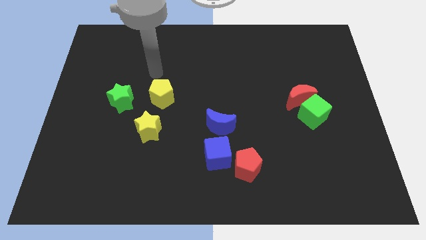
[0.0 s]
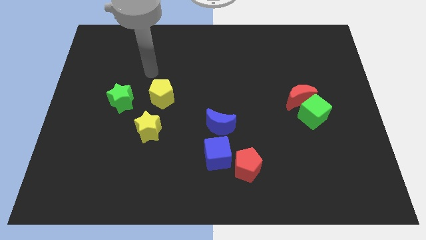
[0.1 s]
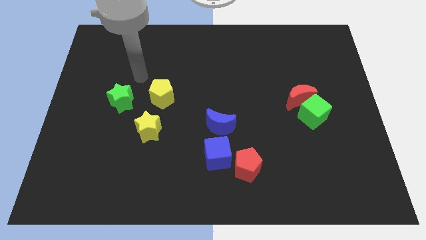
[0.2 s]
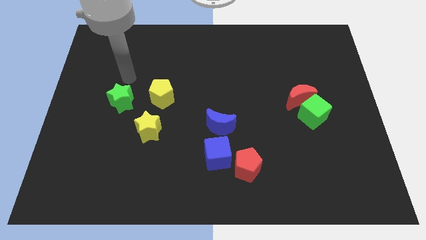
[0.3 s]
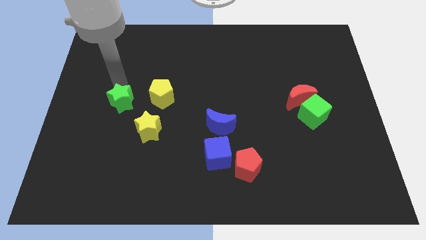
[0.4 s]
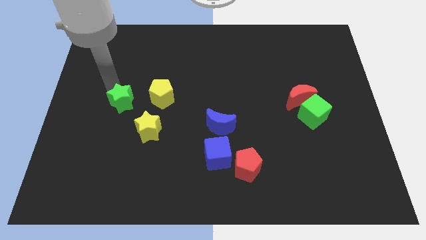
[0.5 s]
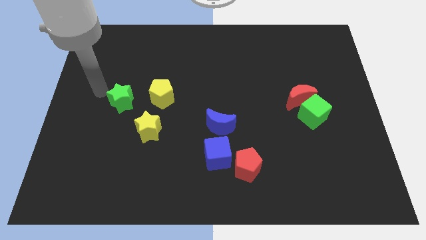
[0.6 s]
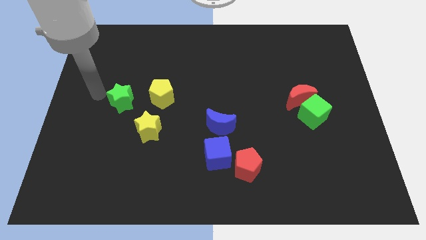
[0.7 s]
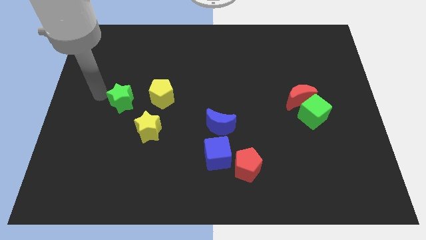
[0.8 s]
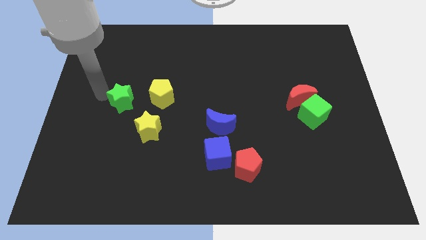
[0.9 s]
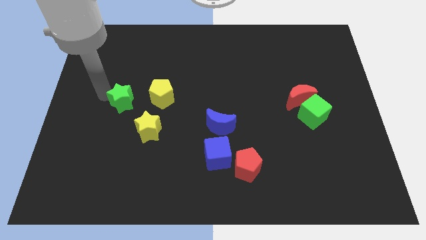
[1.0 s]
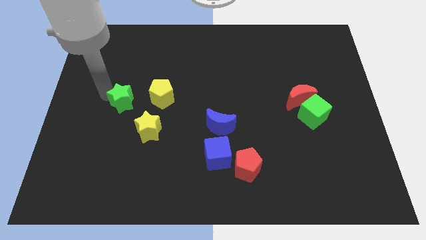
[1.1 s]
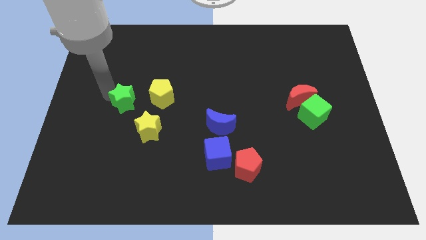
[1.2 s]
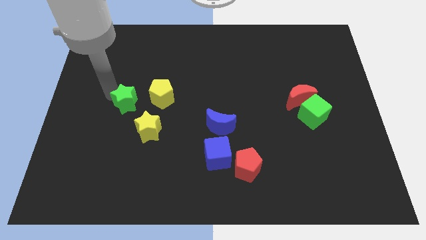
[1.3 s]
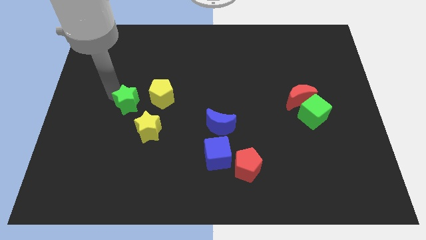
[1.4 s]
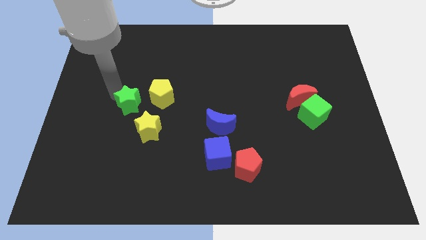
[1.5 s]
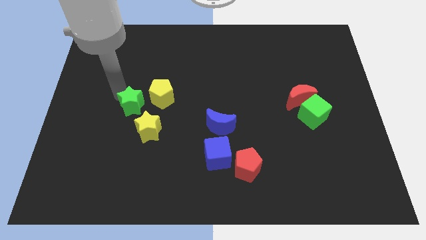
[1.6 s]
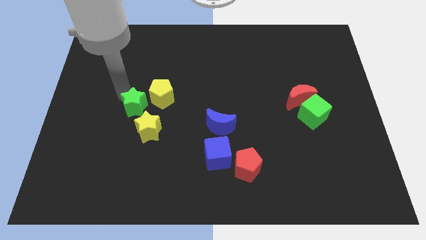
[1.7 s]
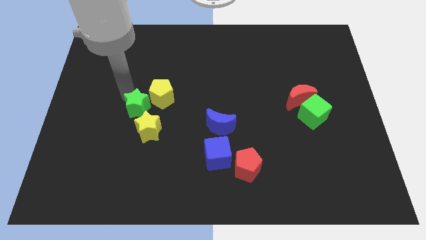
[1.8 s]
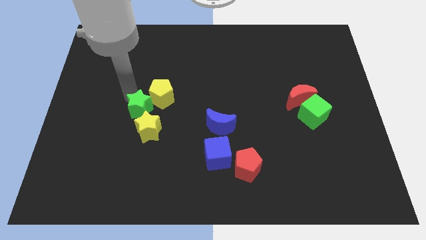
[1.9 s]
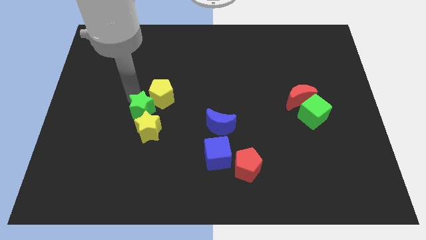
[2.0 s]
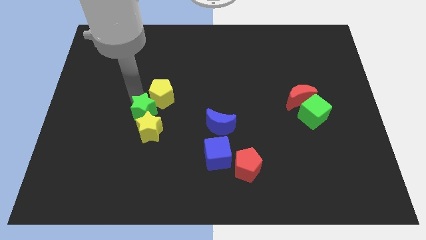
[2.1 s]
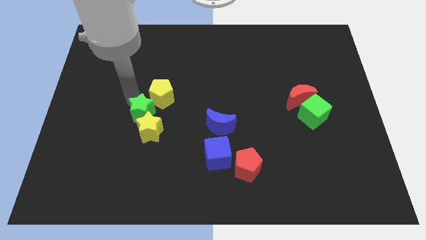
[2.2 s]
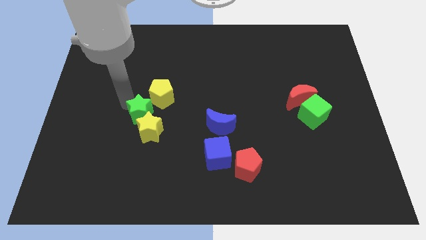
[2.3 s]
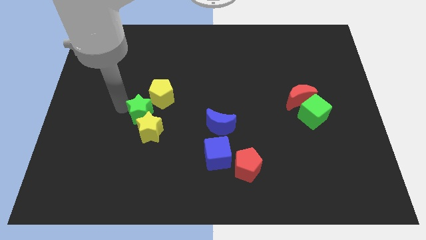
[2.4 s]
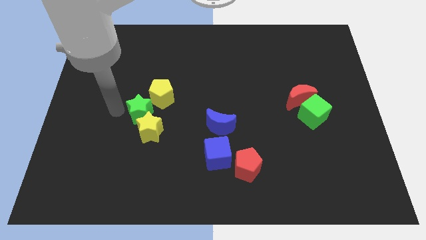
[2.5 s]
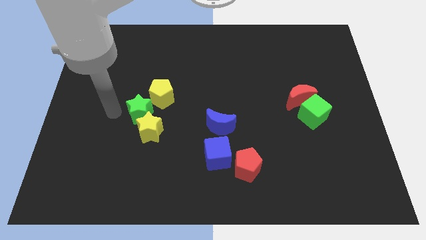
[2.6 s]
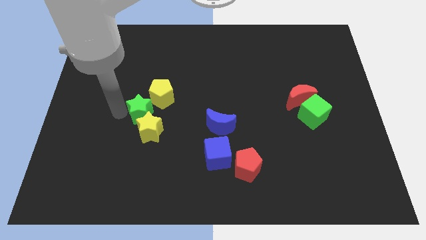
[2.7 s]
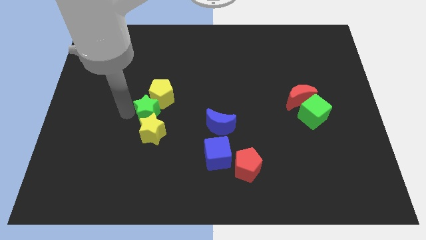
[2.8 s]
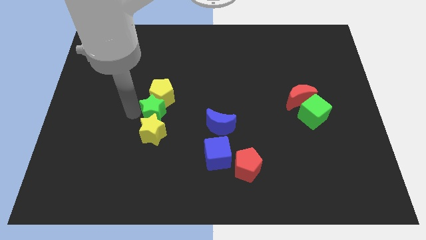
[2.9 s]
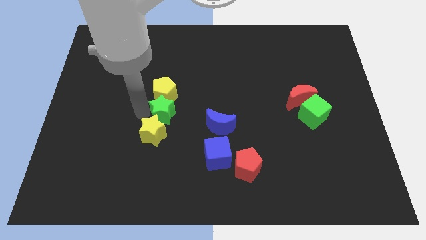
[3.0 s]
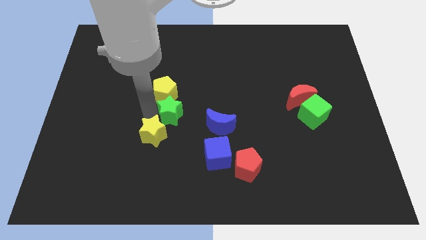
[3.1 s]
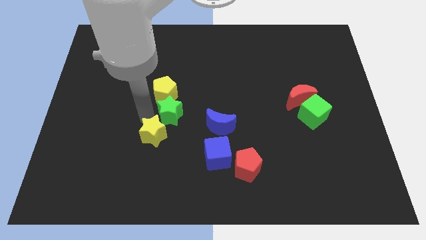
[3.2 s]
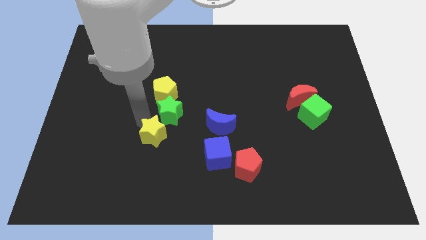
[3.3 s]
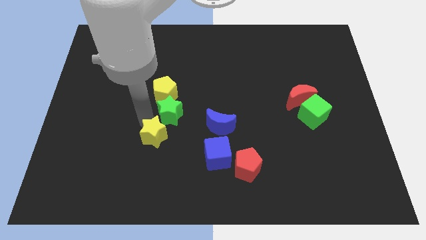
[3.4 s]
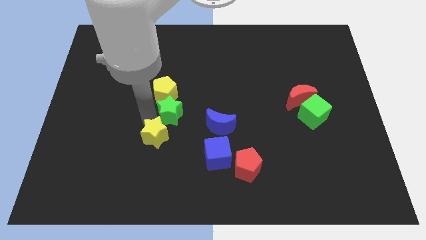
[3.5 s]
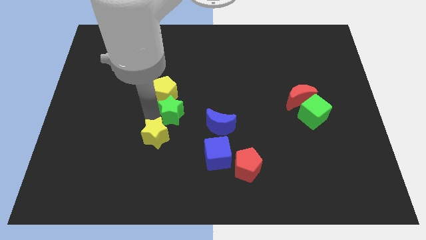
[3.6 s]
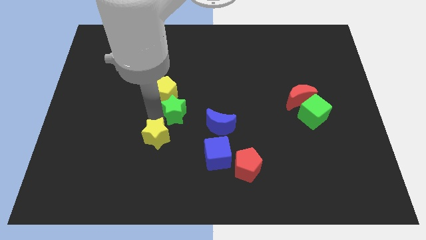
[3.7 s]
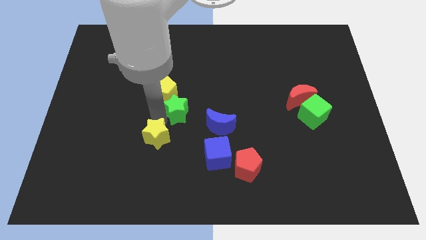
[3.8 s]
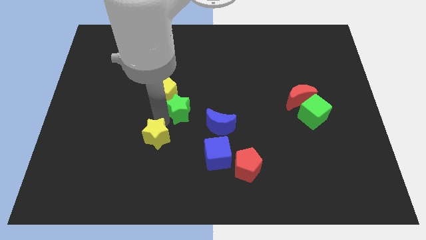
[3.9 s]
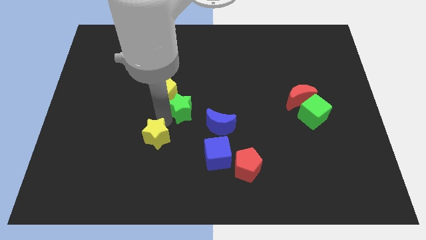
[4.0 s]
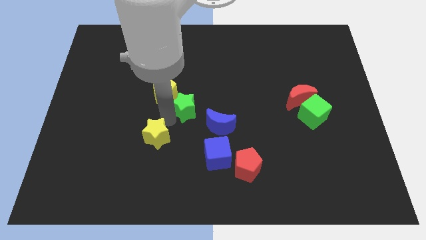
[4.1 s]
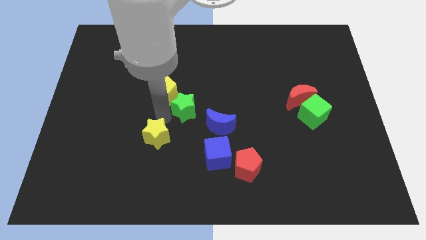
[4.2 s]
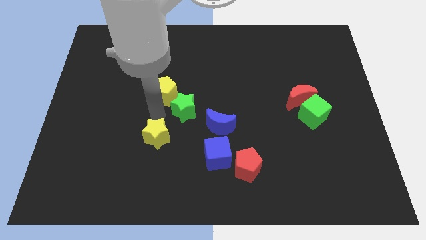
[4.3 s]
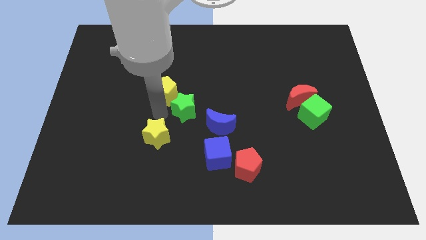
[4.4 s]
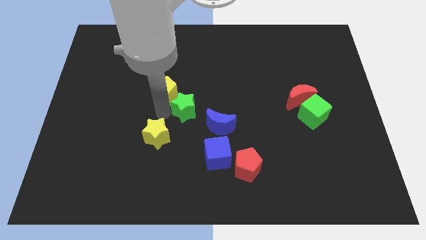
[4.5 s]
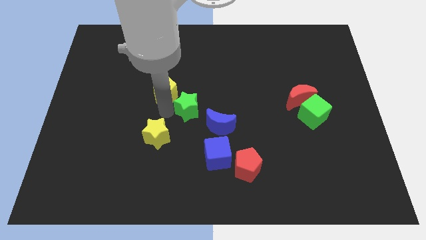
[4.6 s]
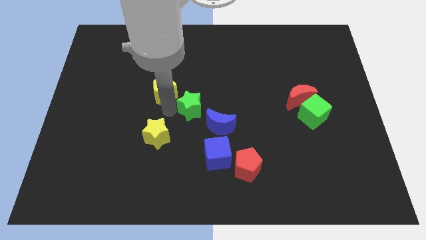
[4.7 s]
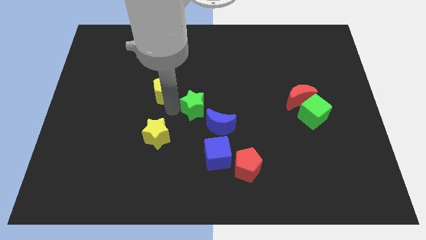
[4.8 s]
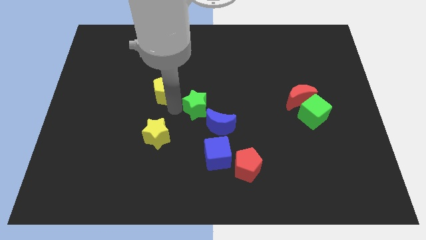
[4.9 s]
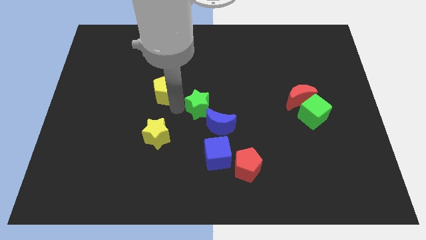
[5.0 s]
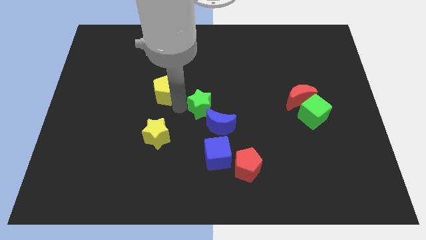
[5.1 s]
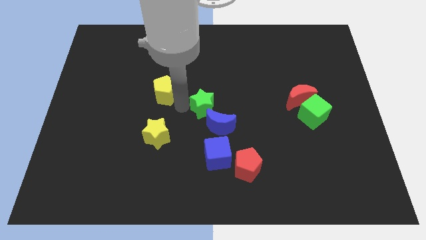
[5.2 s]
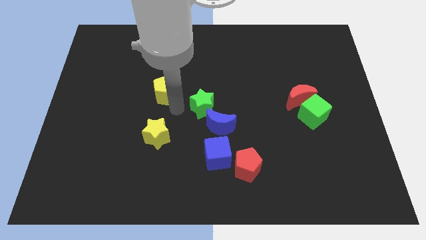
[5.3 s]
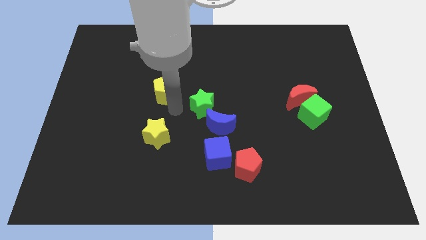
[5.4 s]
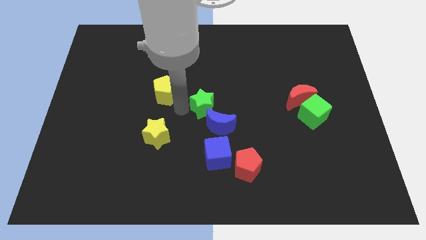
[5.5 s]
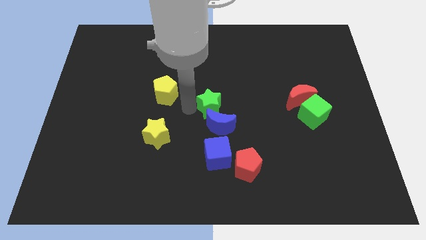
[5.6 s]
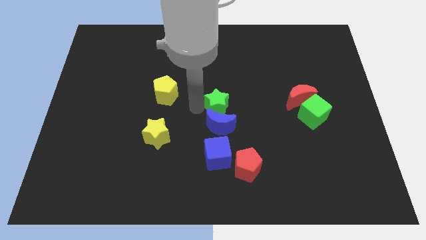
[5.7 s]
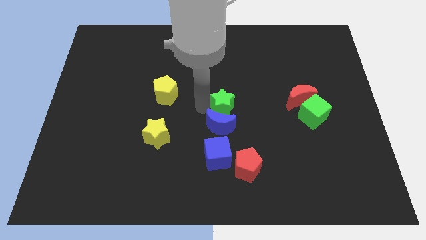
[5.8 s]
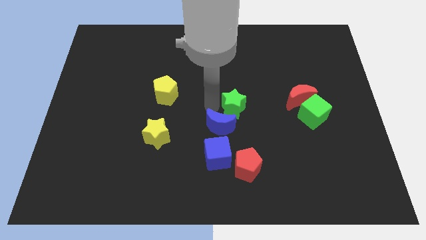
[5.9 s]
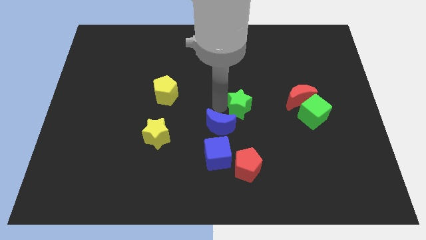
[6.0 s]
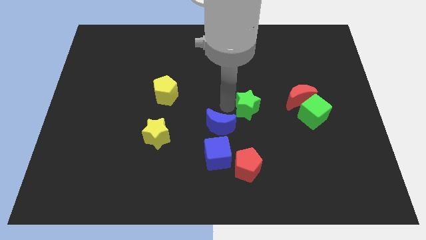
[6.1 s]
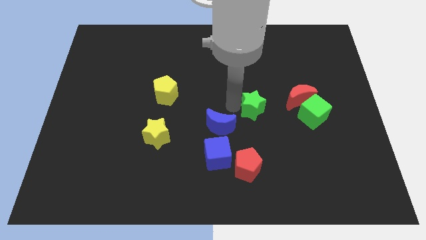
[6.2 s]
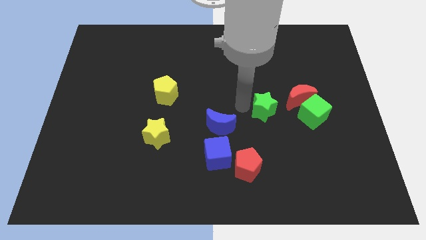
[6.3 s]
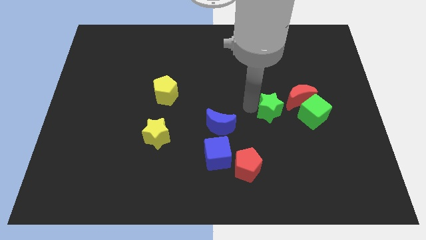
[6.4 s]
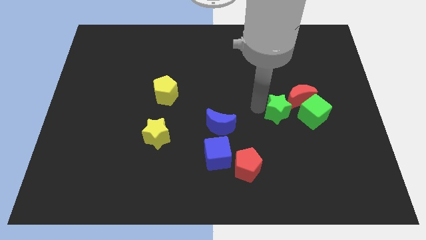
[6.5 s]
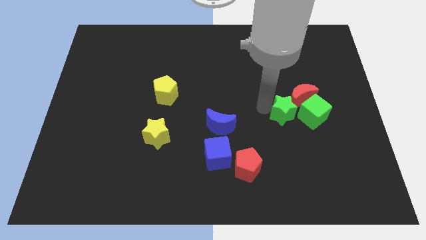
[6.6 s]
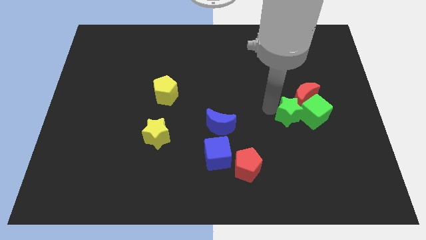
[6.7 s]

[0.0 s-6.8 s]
slide the green star towards the green cube
